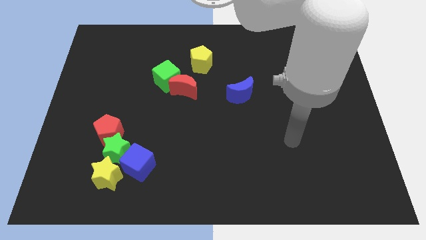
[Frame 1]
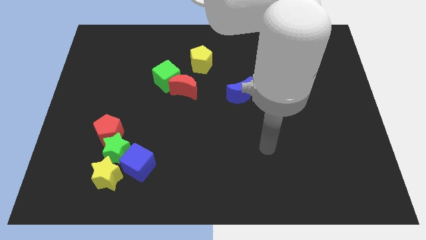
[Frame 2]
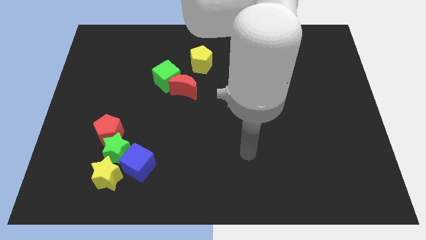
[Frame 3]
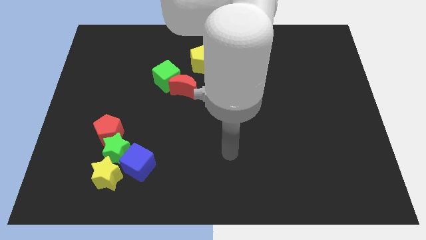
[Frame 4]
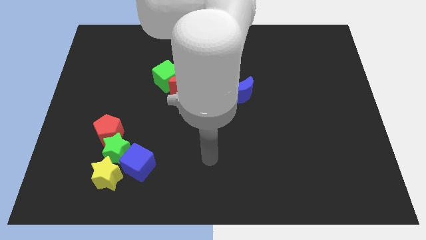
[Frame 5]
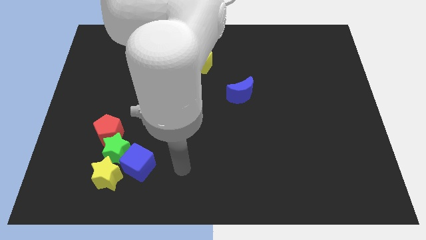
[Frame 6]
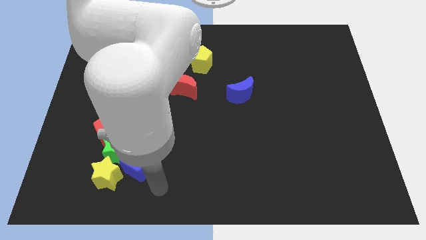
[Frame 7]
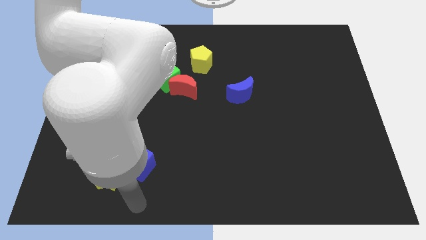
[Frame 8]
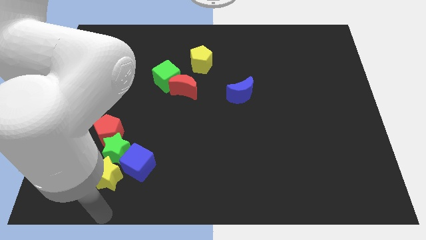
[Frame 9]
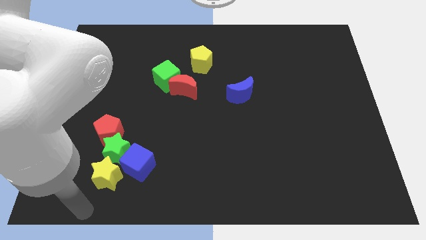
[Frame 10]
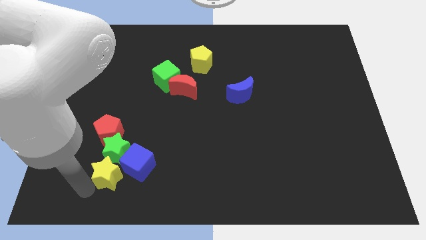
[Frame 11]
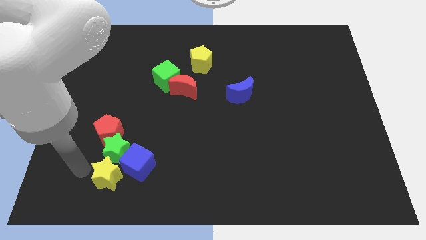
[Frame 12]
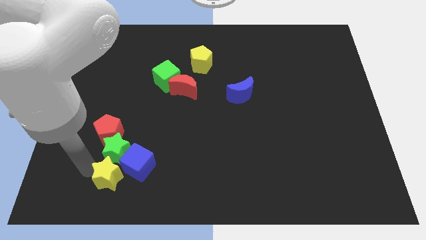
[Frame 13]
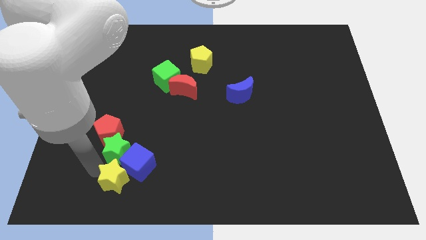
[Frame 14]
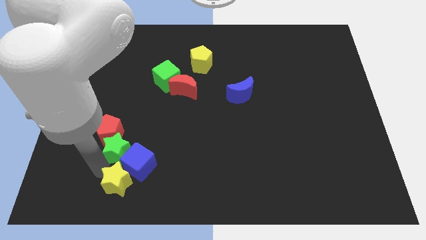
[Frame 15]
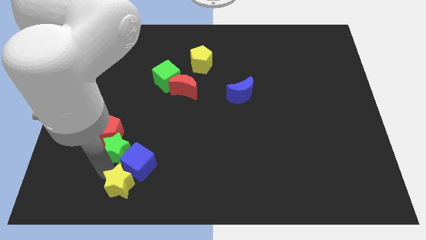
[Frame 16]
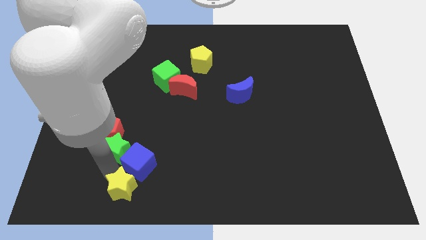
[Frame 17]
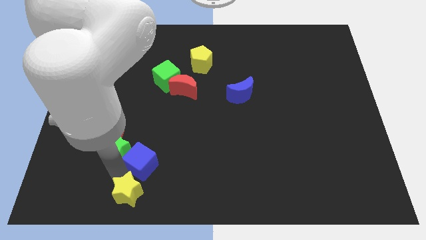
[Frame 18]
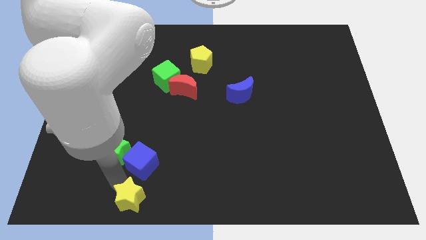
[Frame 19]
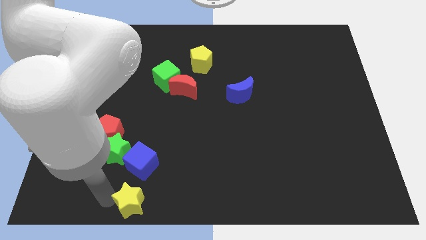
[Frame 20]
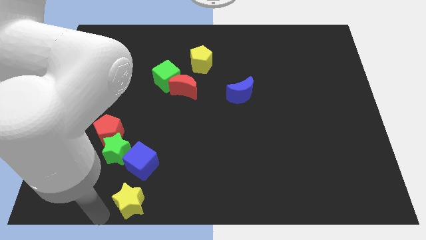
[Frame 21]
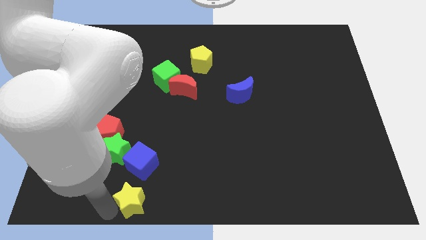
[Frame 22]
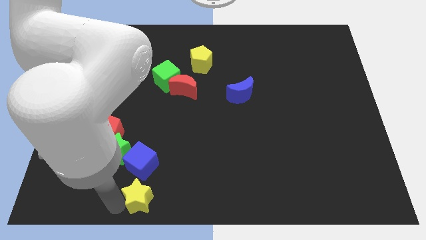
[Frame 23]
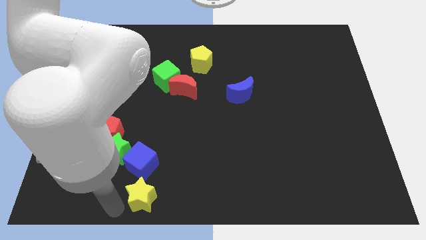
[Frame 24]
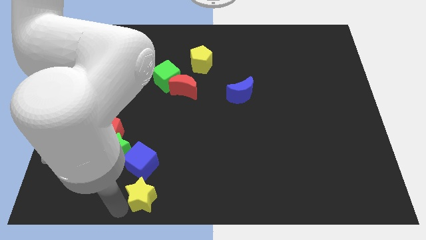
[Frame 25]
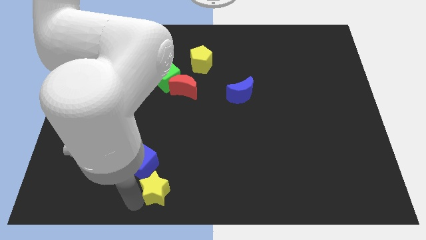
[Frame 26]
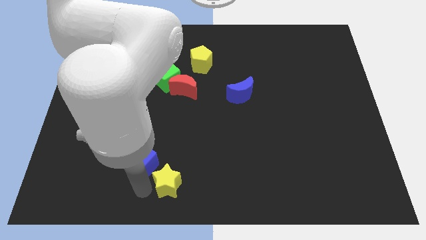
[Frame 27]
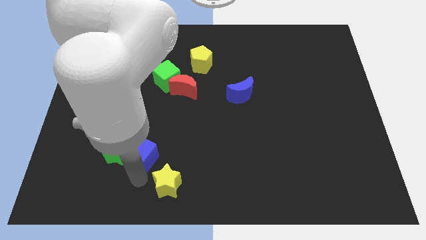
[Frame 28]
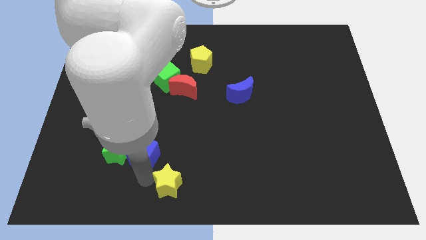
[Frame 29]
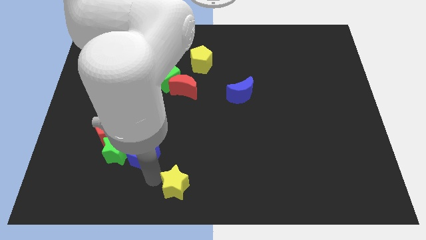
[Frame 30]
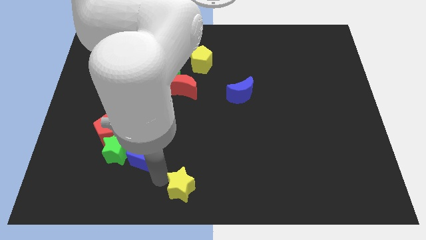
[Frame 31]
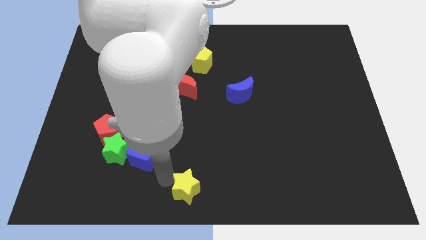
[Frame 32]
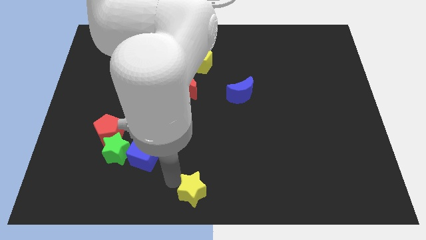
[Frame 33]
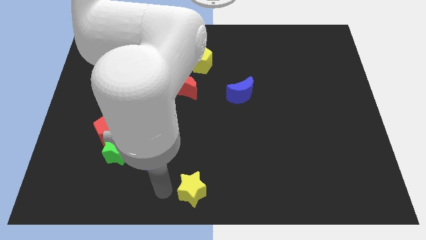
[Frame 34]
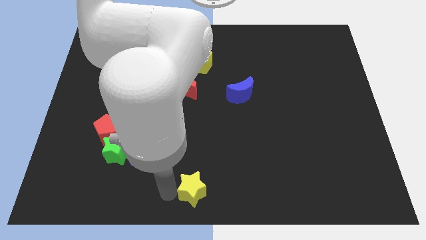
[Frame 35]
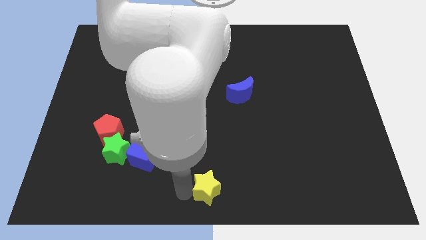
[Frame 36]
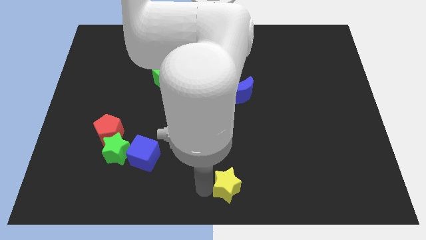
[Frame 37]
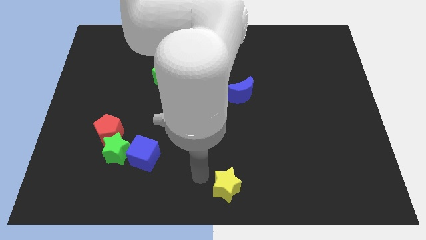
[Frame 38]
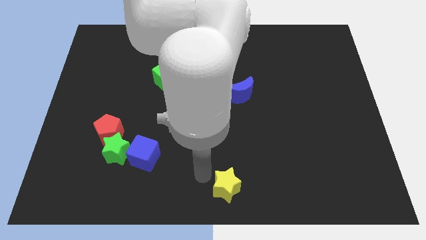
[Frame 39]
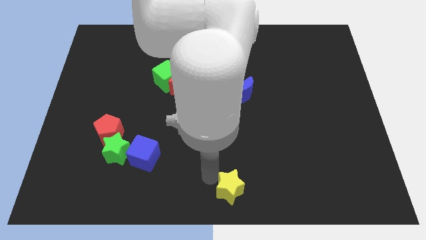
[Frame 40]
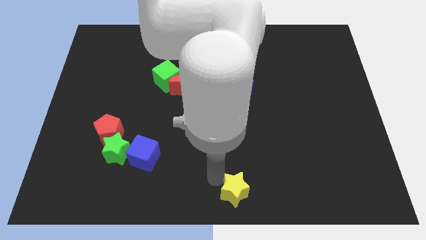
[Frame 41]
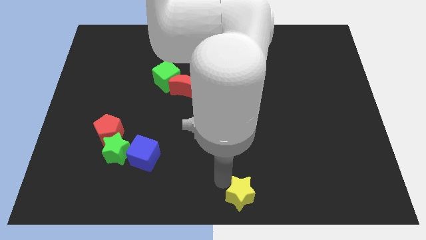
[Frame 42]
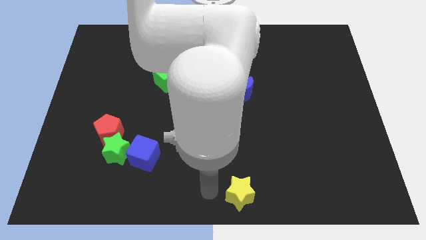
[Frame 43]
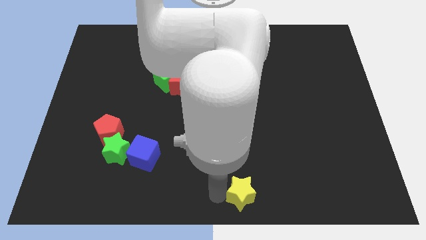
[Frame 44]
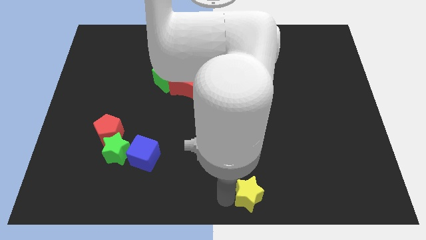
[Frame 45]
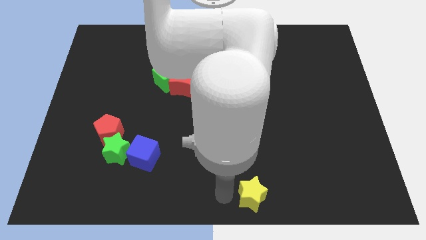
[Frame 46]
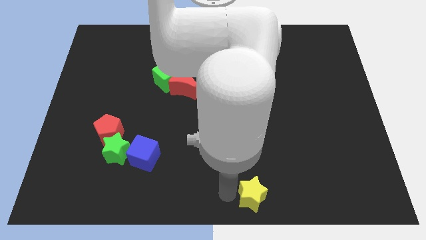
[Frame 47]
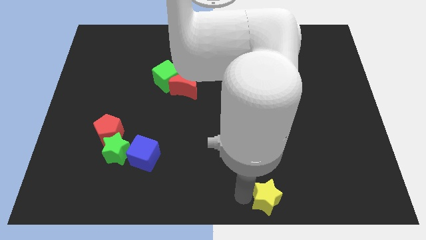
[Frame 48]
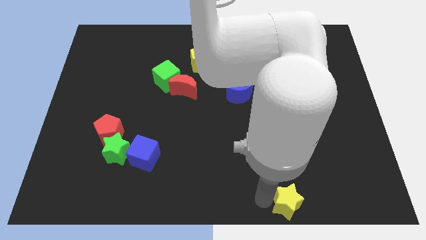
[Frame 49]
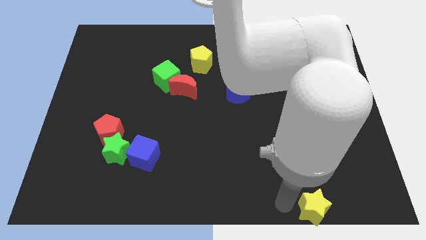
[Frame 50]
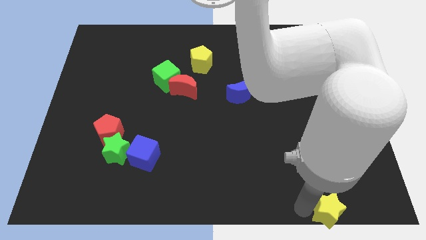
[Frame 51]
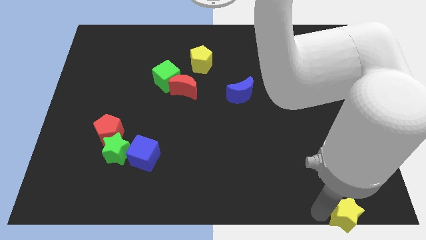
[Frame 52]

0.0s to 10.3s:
put the yellow star to the bottom right corner

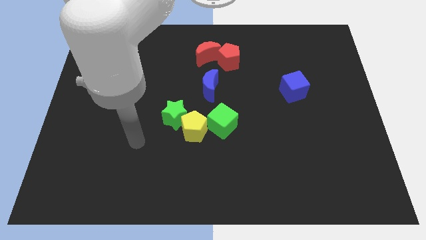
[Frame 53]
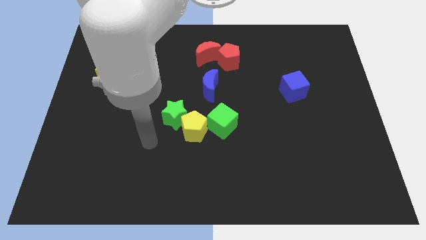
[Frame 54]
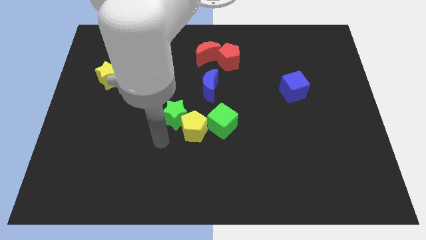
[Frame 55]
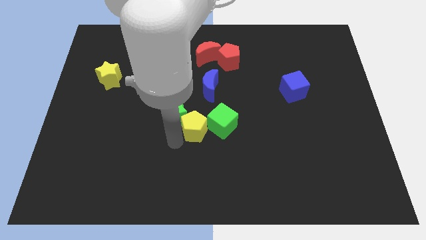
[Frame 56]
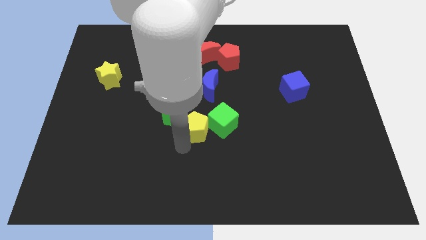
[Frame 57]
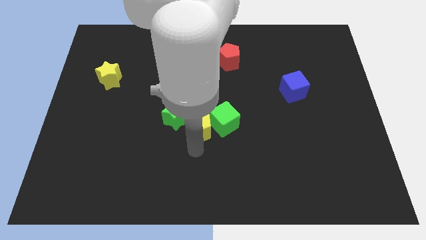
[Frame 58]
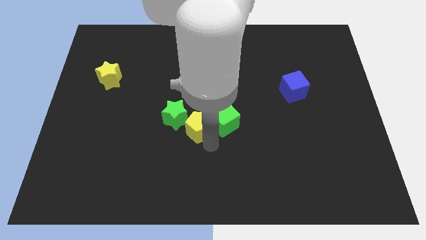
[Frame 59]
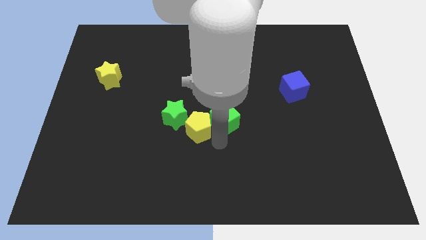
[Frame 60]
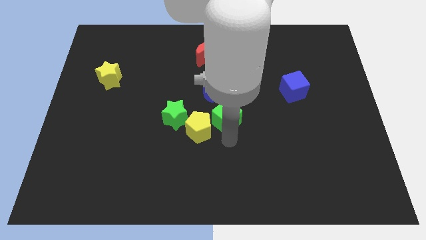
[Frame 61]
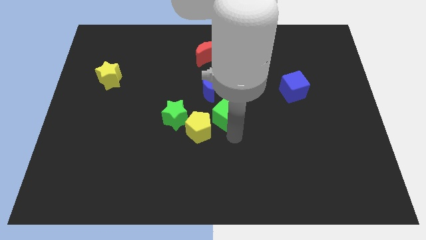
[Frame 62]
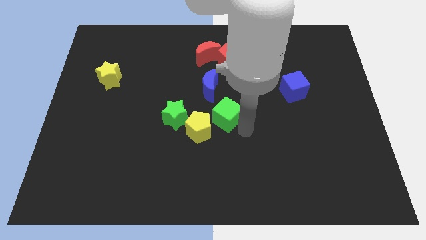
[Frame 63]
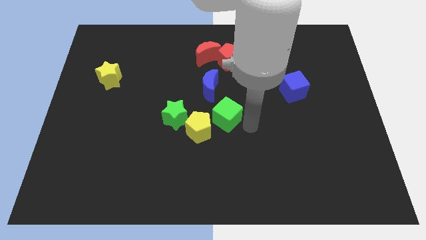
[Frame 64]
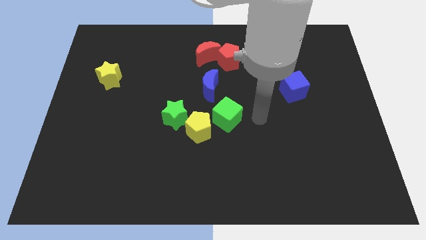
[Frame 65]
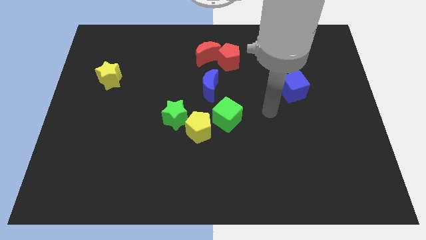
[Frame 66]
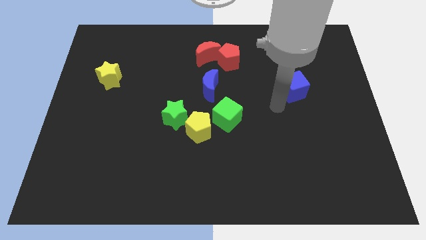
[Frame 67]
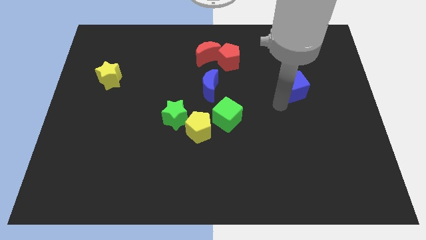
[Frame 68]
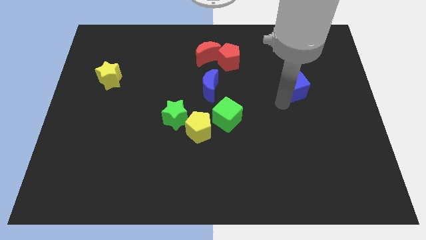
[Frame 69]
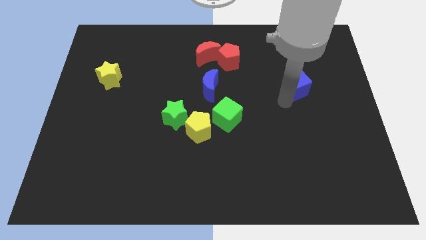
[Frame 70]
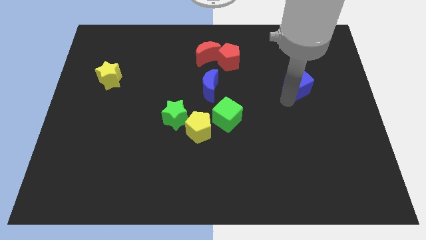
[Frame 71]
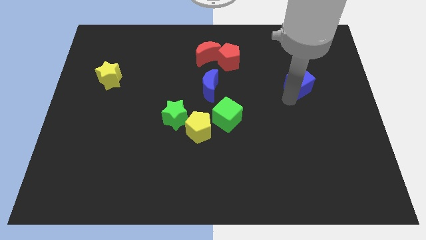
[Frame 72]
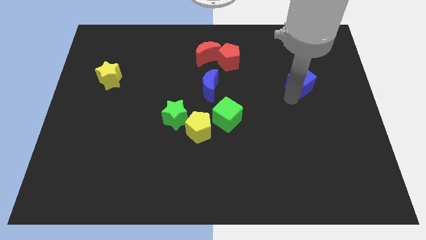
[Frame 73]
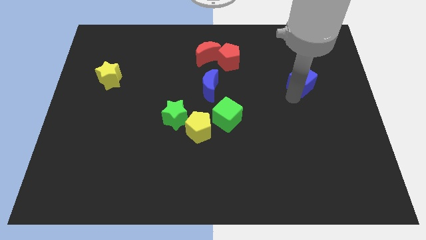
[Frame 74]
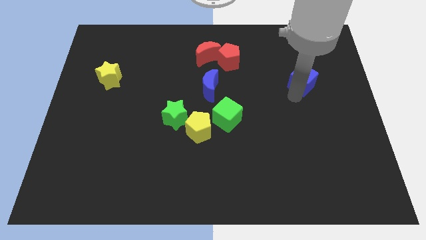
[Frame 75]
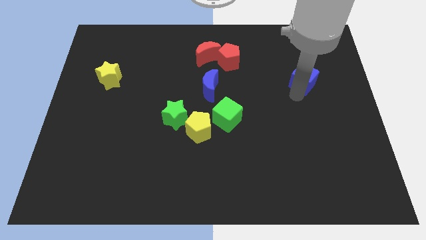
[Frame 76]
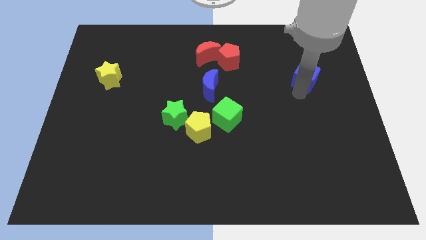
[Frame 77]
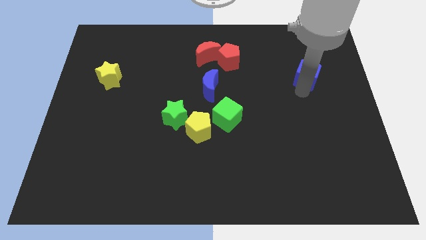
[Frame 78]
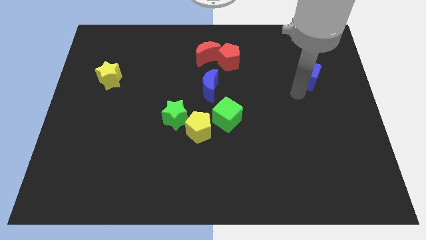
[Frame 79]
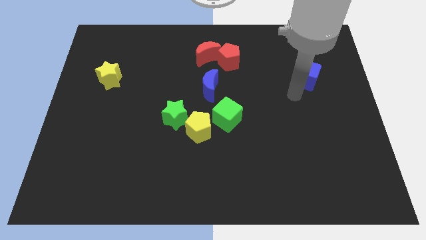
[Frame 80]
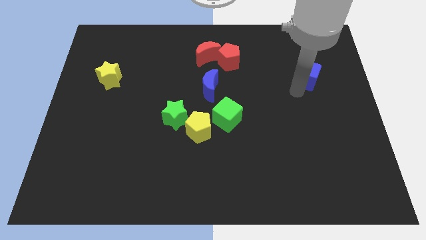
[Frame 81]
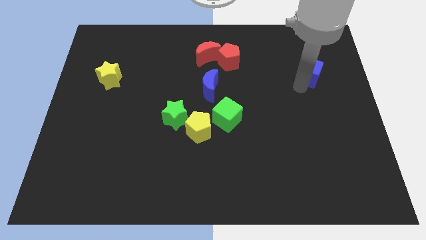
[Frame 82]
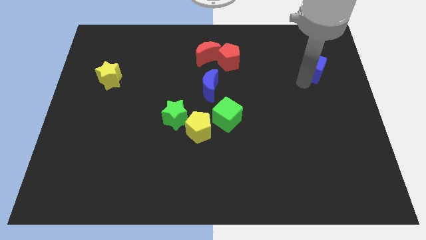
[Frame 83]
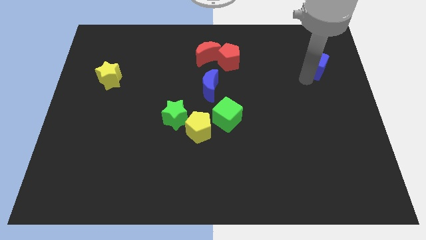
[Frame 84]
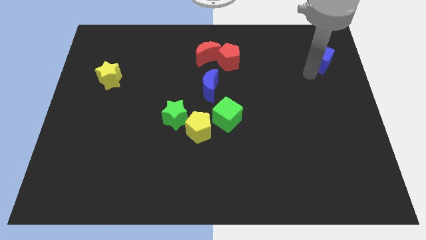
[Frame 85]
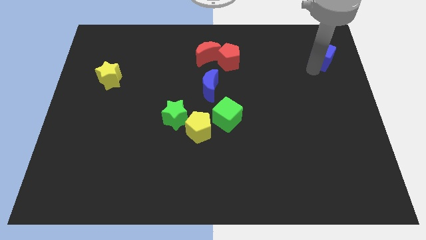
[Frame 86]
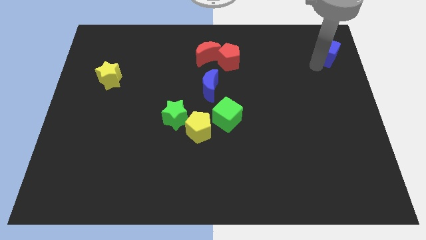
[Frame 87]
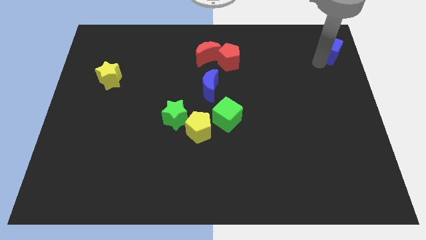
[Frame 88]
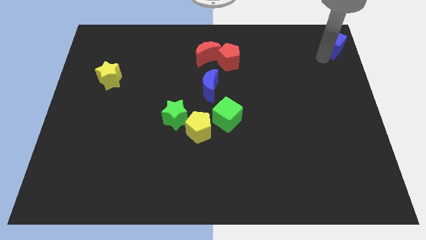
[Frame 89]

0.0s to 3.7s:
move the blue cube to the top right of the board
